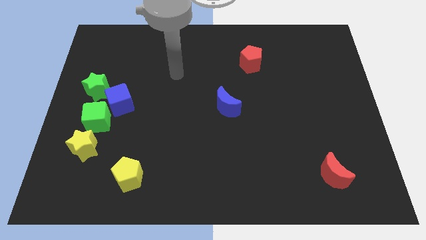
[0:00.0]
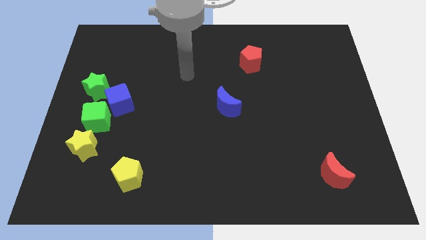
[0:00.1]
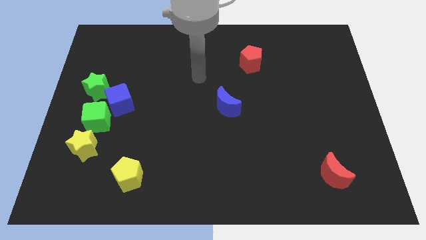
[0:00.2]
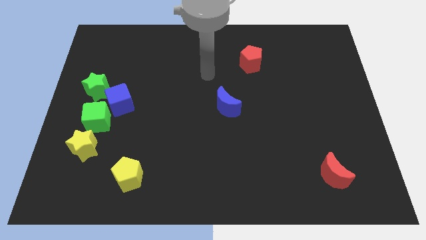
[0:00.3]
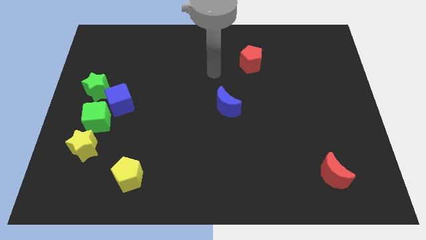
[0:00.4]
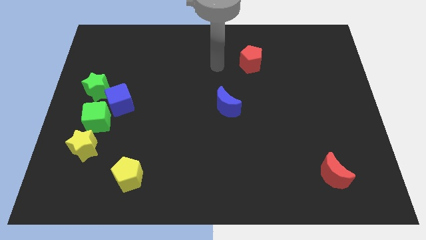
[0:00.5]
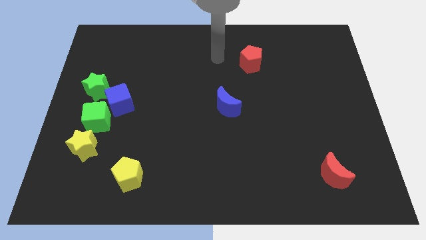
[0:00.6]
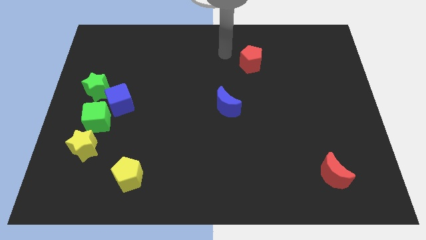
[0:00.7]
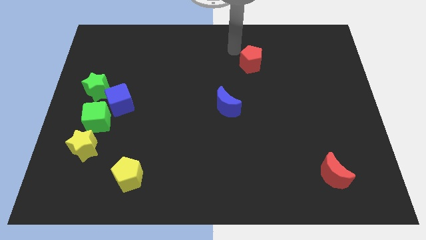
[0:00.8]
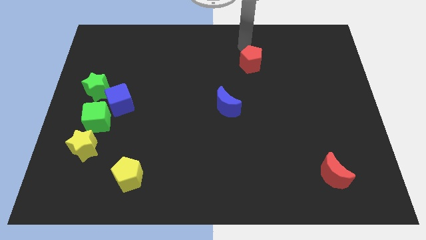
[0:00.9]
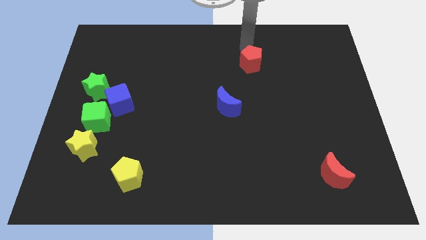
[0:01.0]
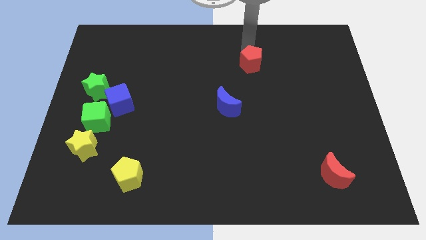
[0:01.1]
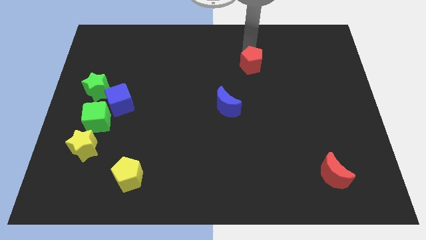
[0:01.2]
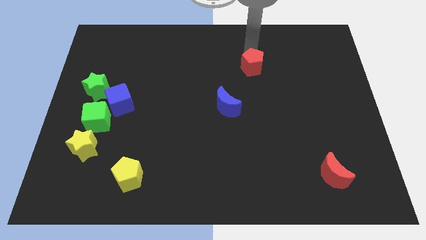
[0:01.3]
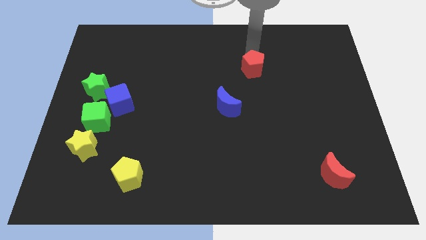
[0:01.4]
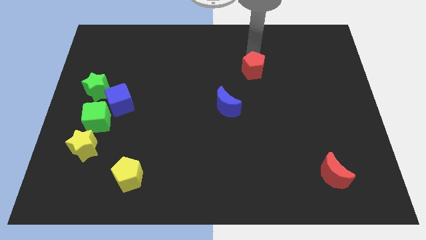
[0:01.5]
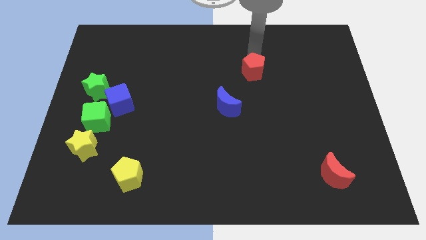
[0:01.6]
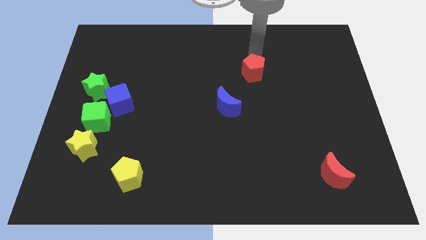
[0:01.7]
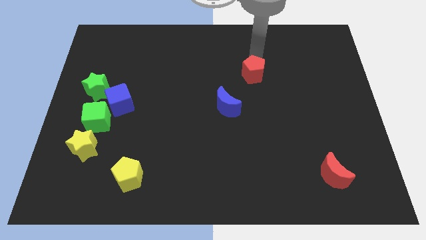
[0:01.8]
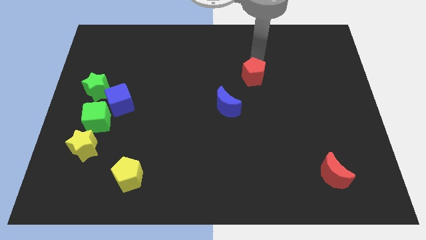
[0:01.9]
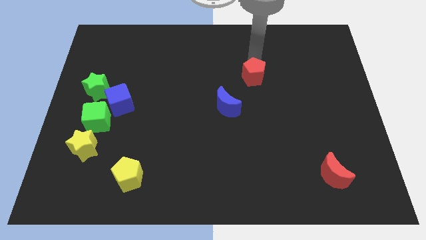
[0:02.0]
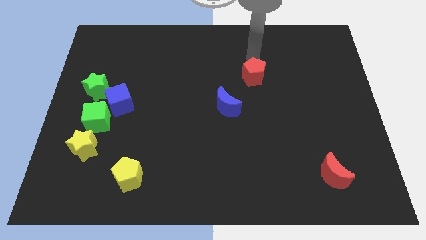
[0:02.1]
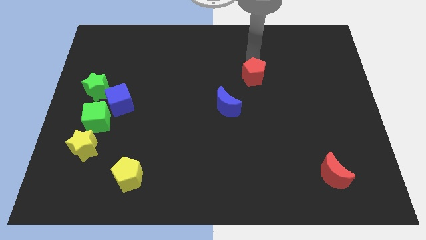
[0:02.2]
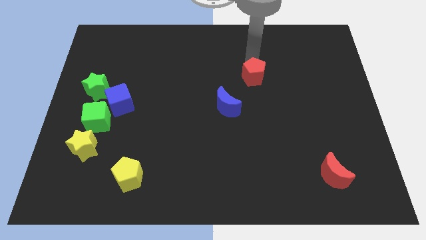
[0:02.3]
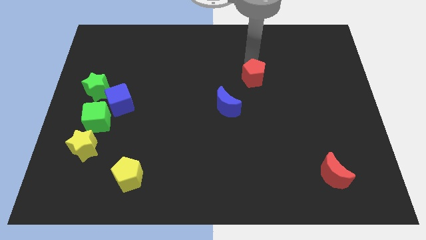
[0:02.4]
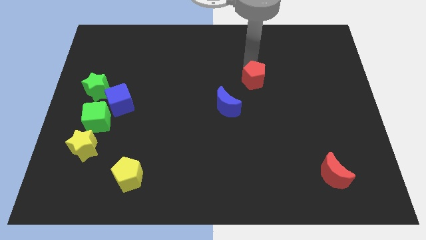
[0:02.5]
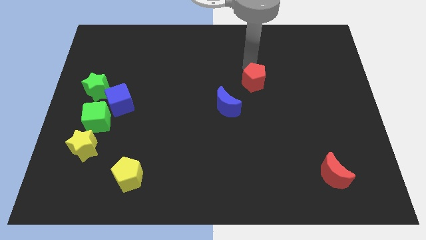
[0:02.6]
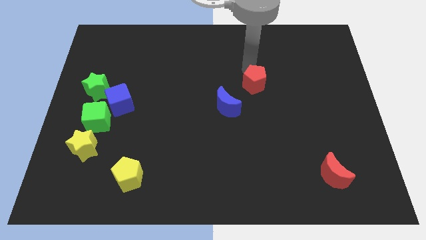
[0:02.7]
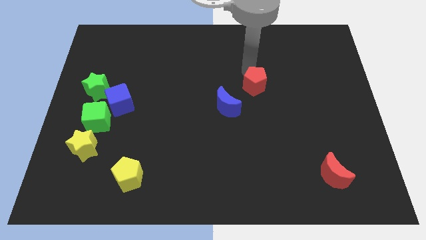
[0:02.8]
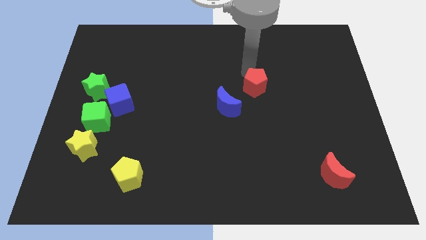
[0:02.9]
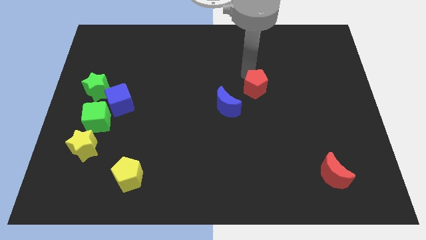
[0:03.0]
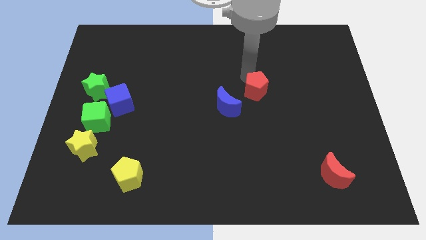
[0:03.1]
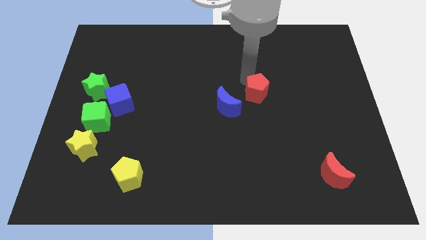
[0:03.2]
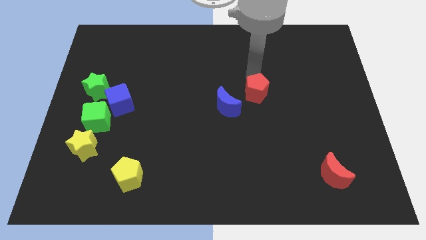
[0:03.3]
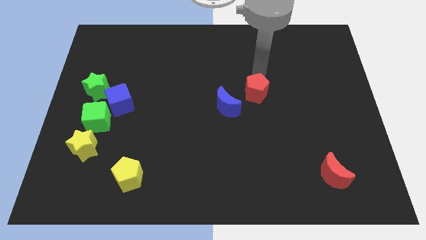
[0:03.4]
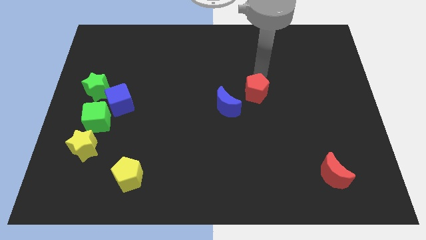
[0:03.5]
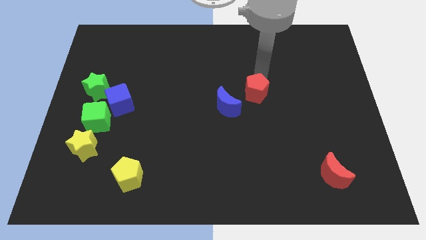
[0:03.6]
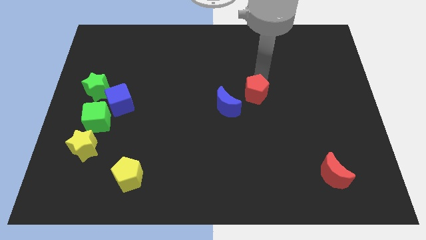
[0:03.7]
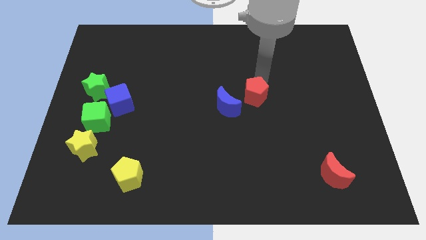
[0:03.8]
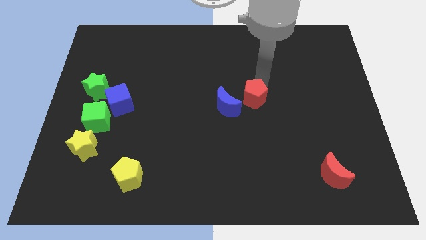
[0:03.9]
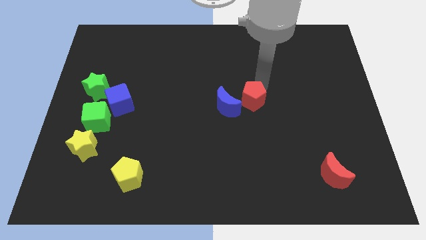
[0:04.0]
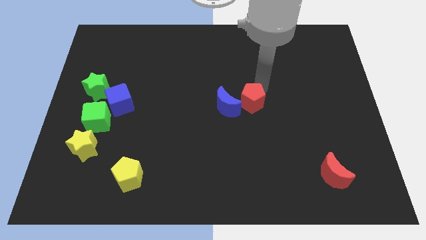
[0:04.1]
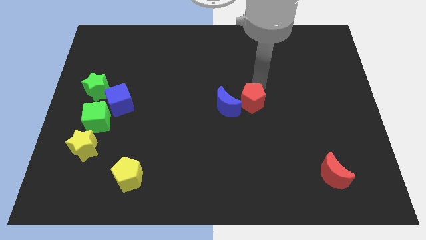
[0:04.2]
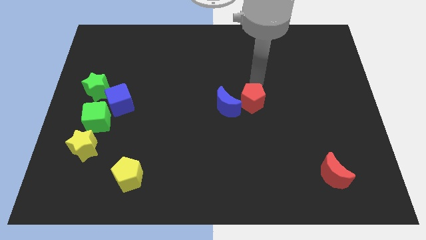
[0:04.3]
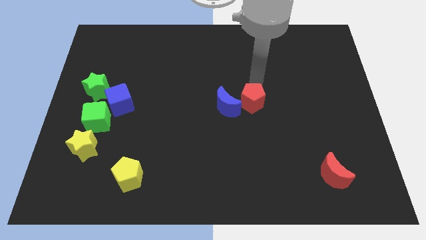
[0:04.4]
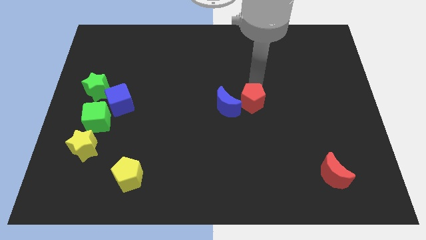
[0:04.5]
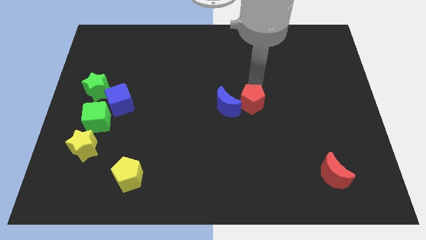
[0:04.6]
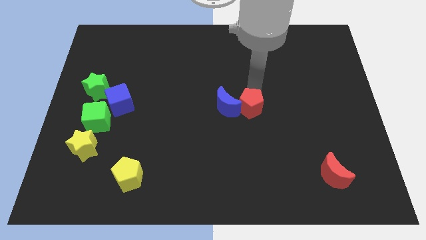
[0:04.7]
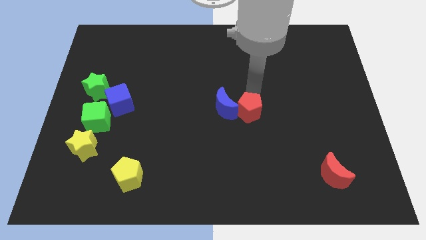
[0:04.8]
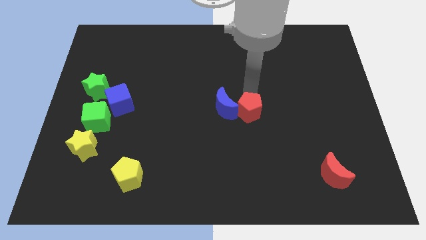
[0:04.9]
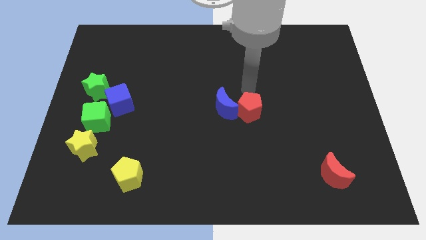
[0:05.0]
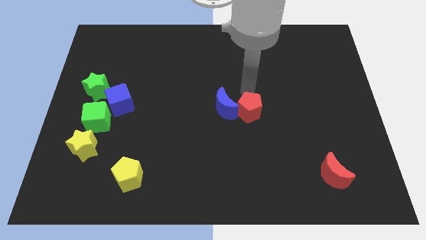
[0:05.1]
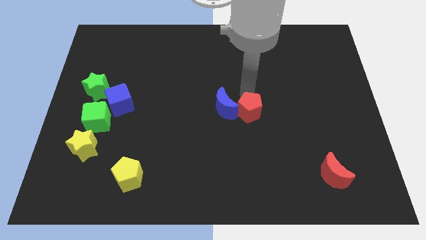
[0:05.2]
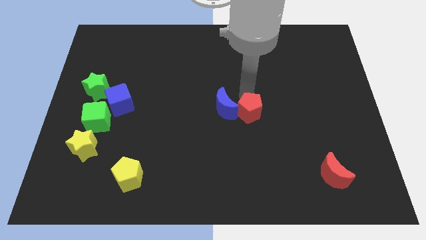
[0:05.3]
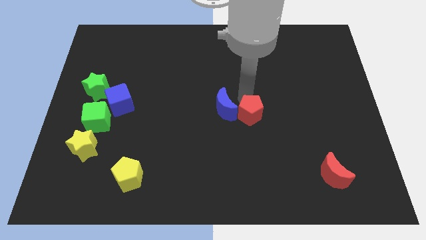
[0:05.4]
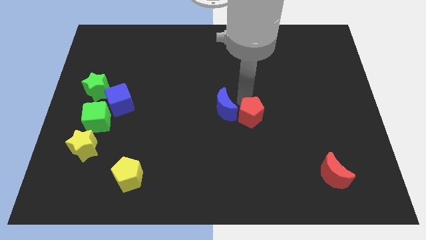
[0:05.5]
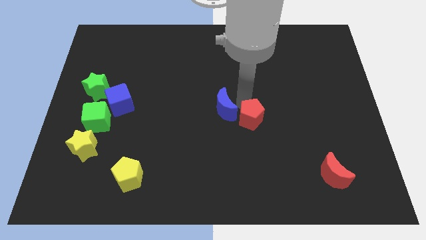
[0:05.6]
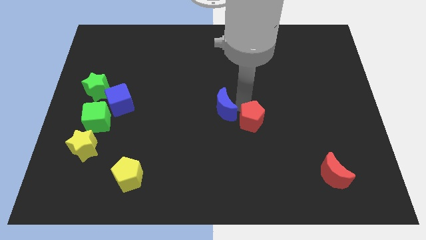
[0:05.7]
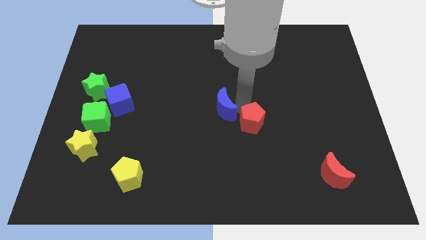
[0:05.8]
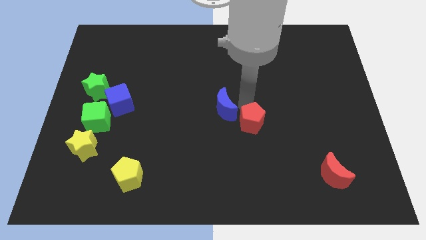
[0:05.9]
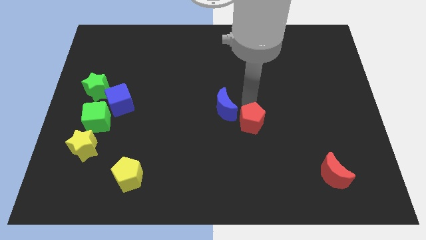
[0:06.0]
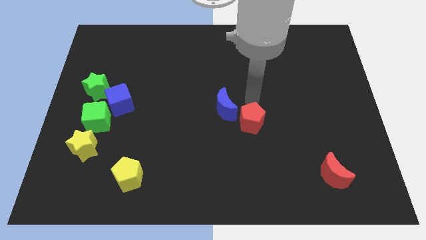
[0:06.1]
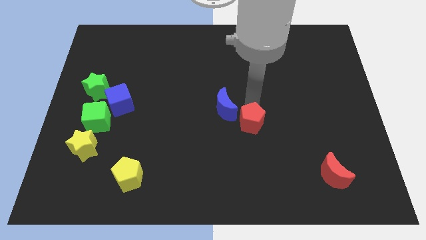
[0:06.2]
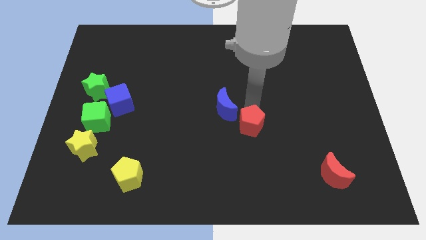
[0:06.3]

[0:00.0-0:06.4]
slide the red pentagon downwards

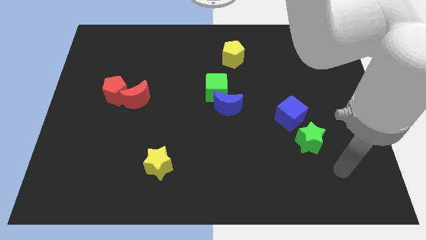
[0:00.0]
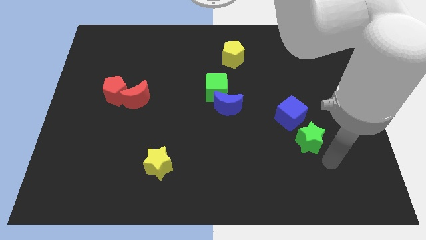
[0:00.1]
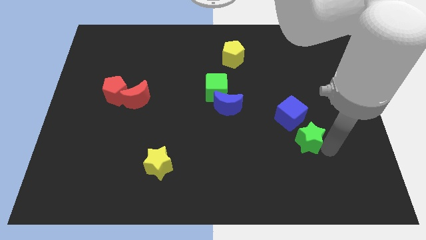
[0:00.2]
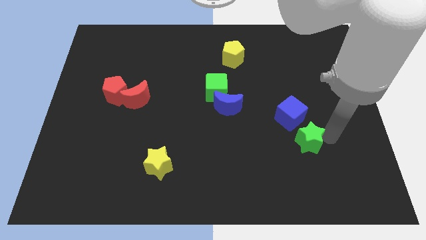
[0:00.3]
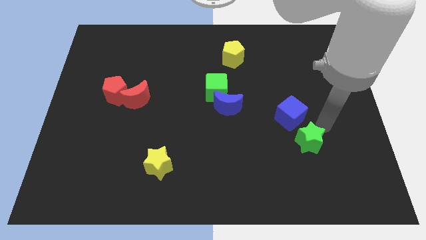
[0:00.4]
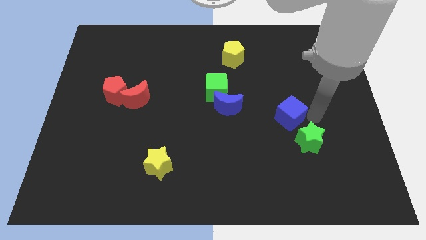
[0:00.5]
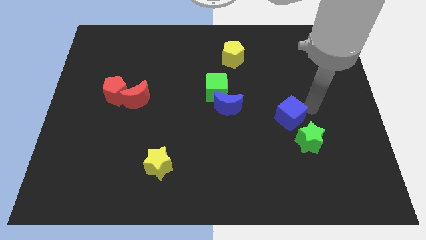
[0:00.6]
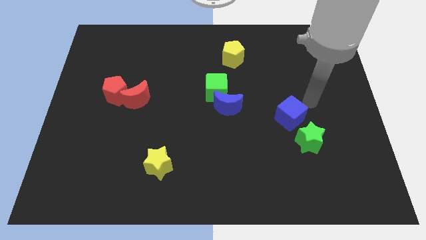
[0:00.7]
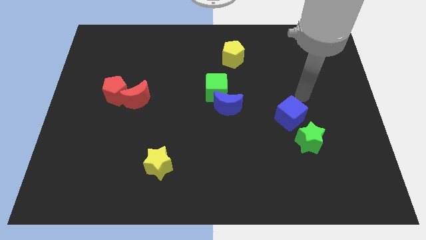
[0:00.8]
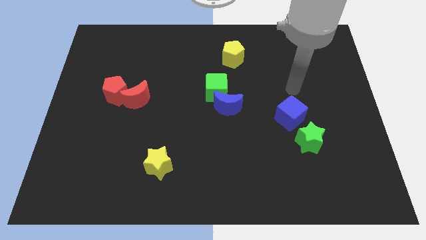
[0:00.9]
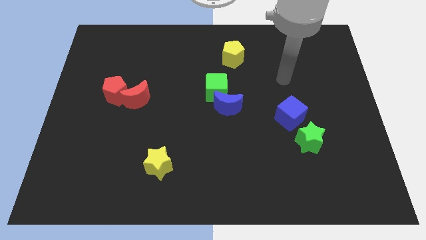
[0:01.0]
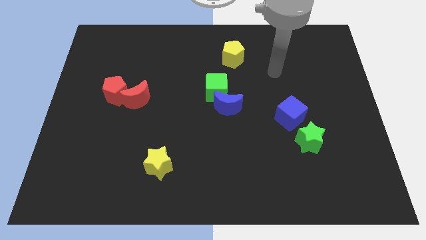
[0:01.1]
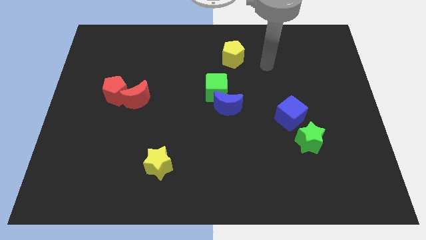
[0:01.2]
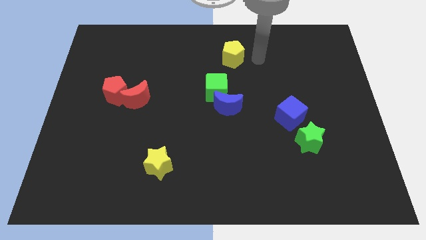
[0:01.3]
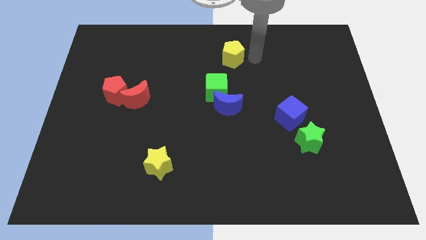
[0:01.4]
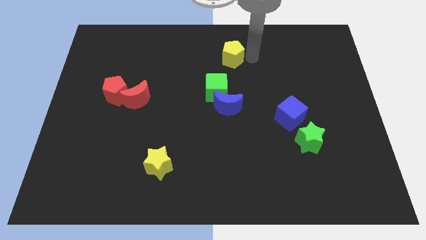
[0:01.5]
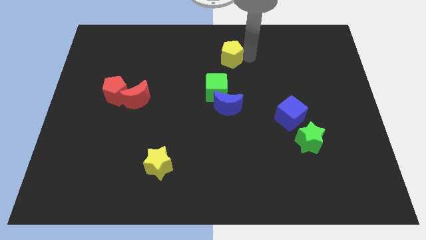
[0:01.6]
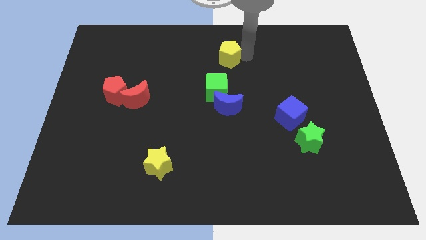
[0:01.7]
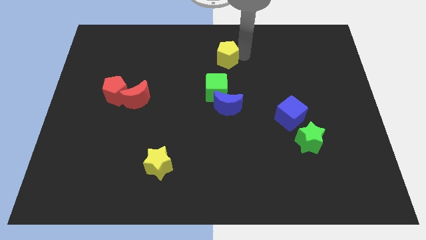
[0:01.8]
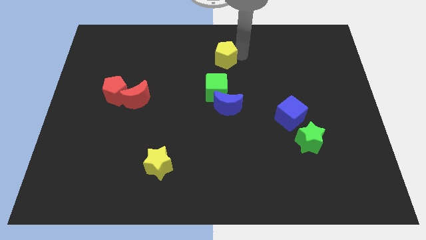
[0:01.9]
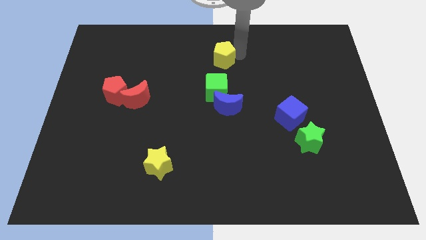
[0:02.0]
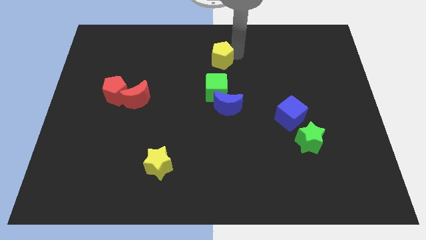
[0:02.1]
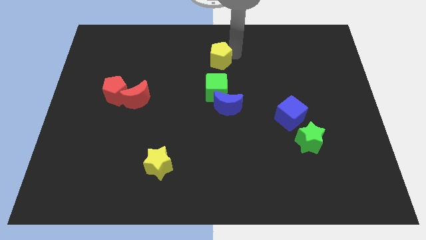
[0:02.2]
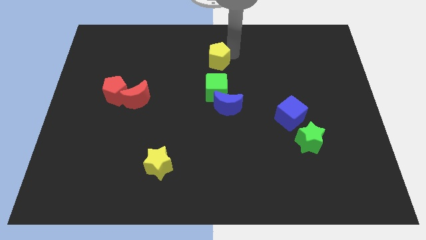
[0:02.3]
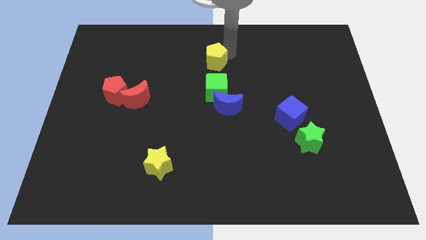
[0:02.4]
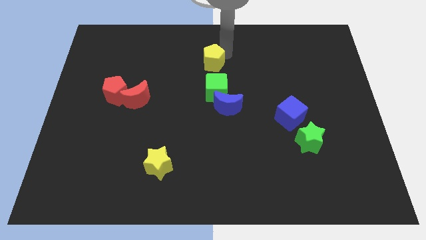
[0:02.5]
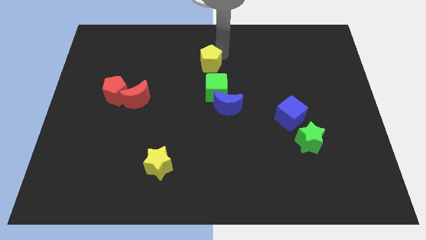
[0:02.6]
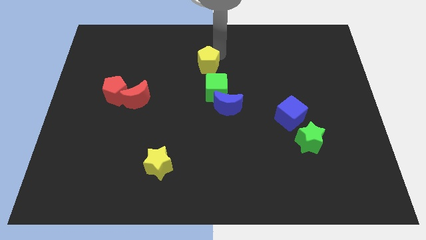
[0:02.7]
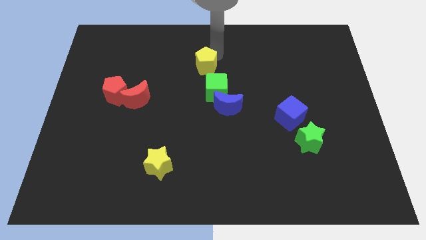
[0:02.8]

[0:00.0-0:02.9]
move the yellow pentagon a bit to the left
